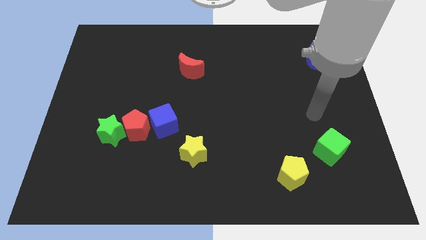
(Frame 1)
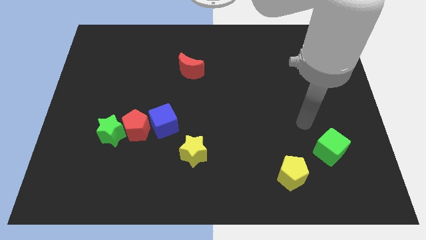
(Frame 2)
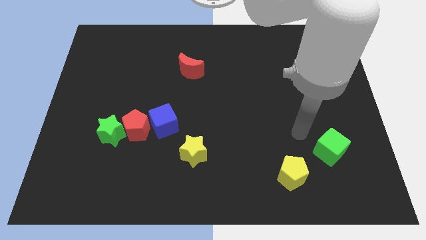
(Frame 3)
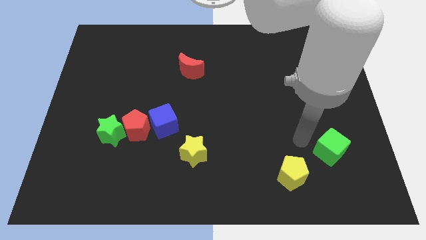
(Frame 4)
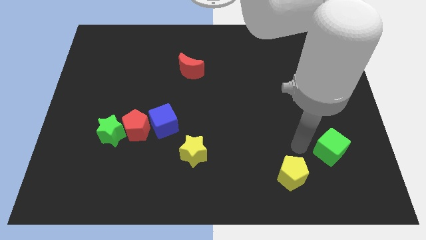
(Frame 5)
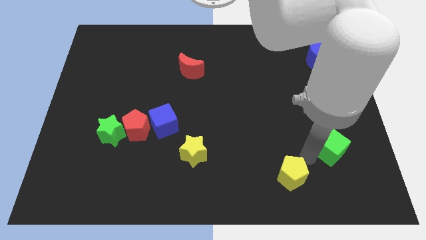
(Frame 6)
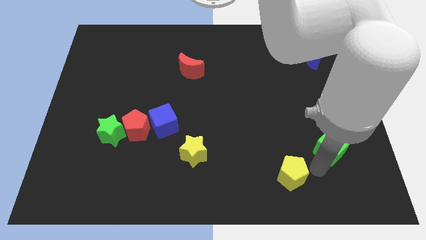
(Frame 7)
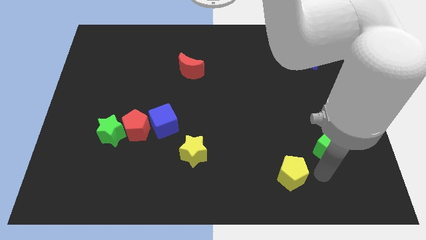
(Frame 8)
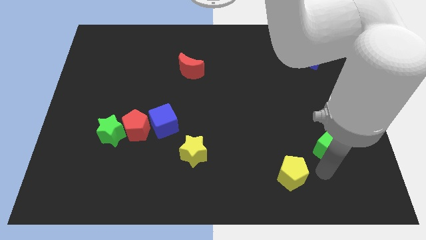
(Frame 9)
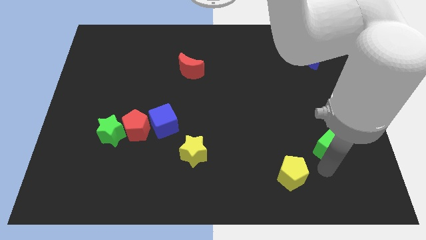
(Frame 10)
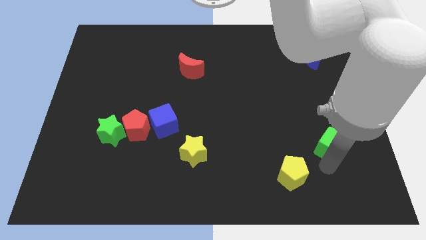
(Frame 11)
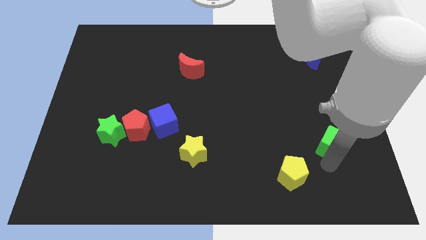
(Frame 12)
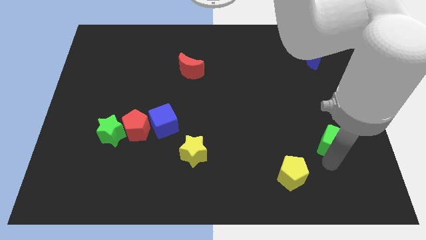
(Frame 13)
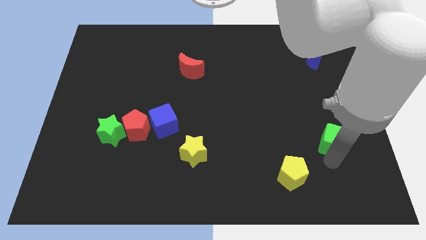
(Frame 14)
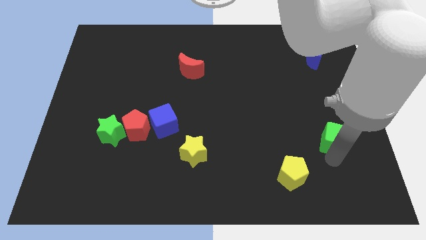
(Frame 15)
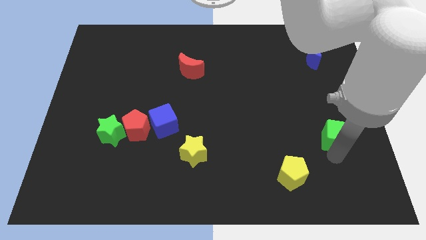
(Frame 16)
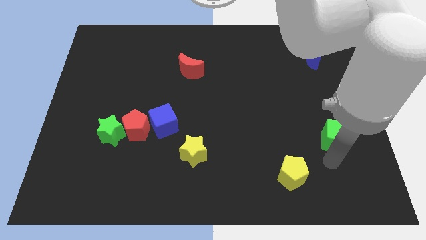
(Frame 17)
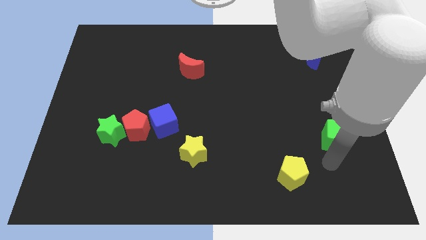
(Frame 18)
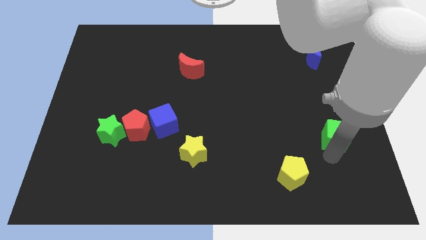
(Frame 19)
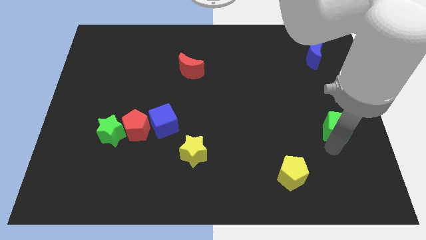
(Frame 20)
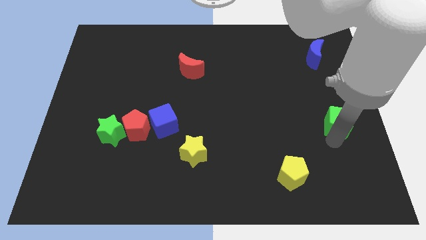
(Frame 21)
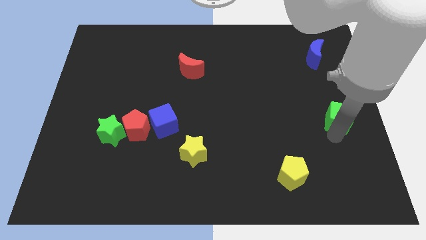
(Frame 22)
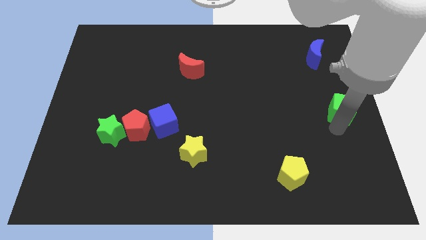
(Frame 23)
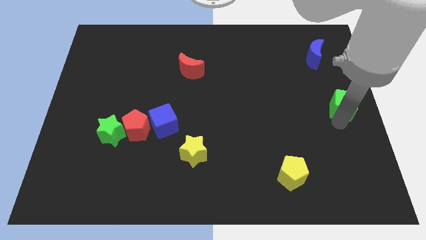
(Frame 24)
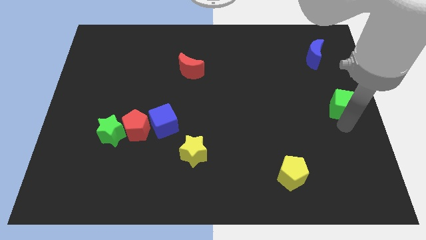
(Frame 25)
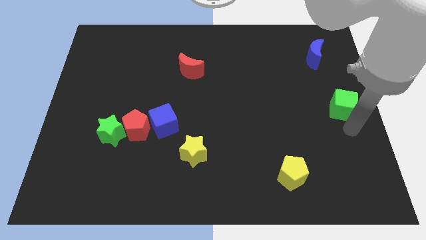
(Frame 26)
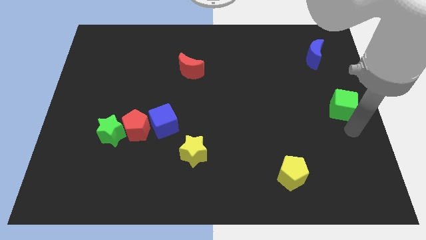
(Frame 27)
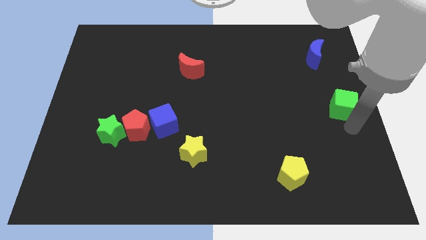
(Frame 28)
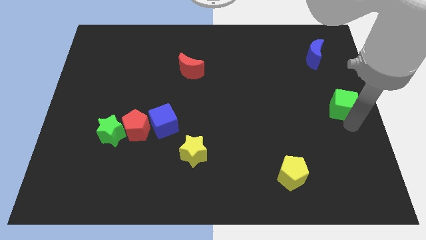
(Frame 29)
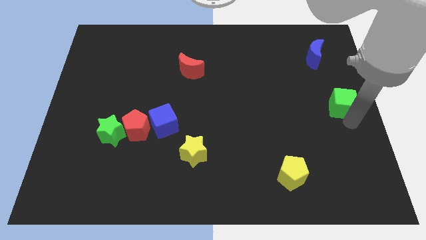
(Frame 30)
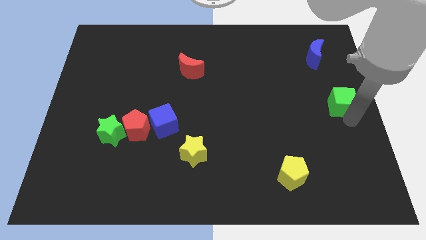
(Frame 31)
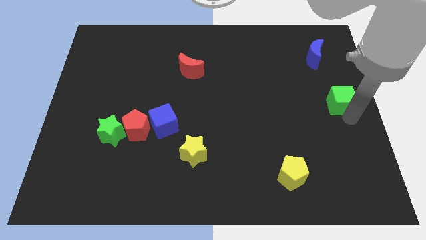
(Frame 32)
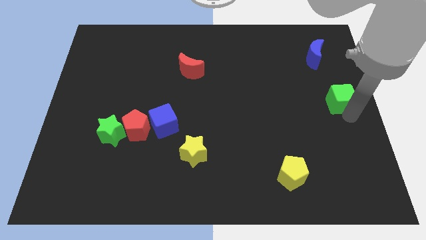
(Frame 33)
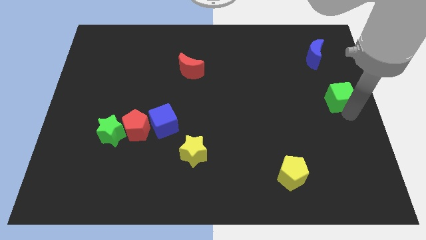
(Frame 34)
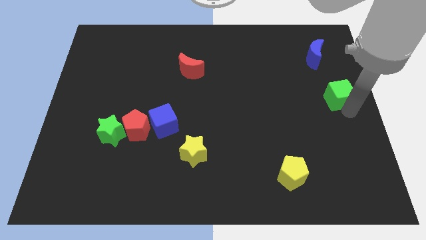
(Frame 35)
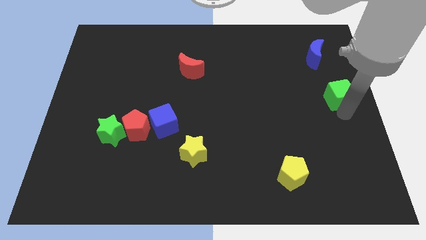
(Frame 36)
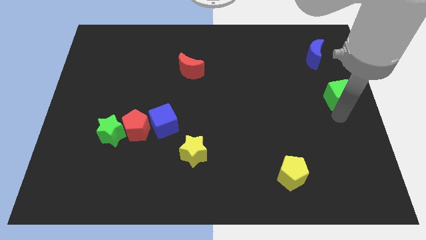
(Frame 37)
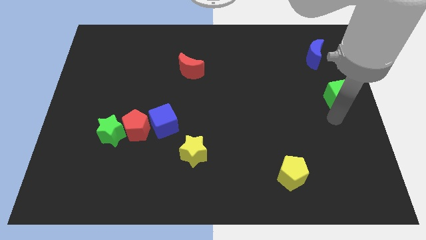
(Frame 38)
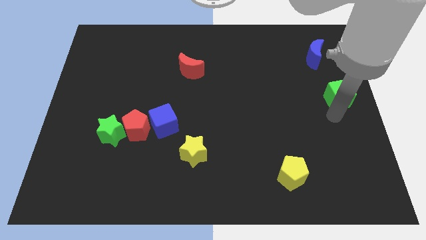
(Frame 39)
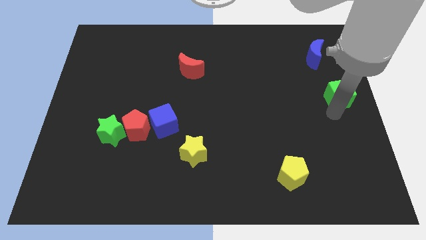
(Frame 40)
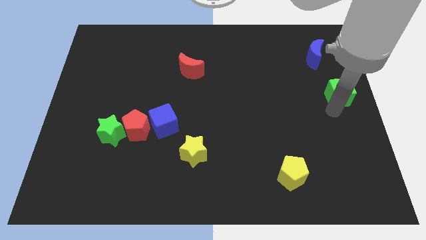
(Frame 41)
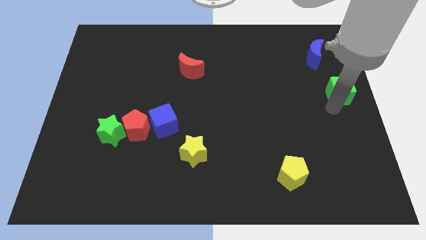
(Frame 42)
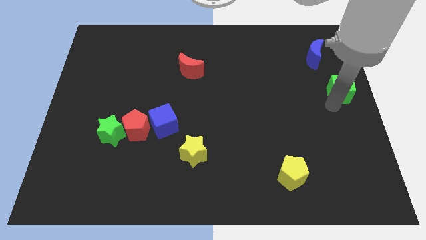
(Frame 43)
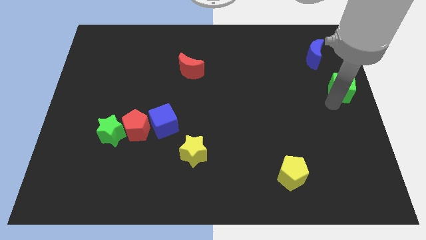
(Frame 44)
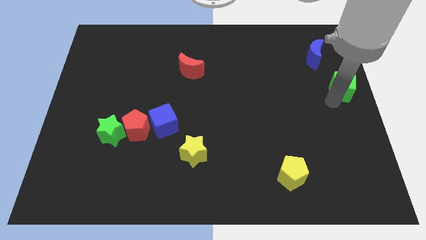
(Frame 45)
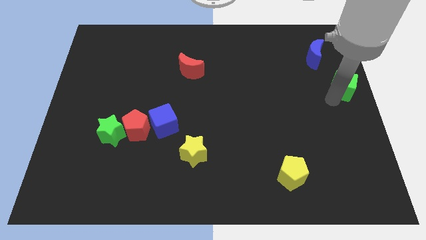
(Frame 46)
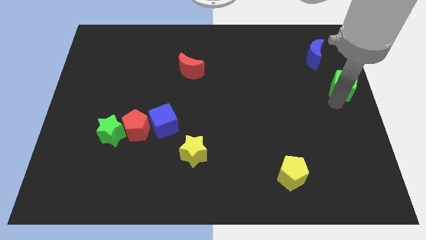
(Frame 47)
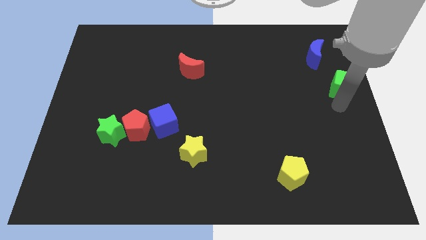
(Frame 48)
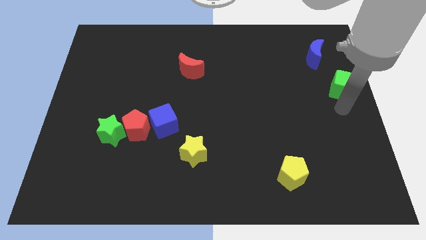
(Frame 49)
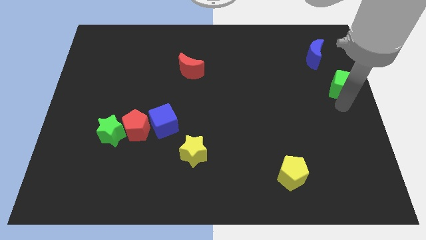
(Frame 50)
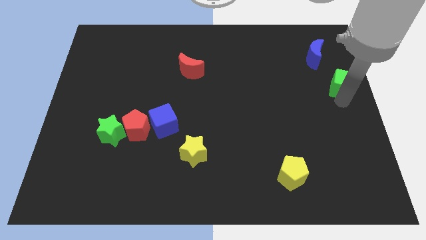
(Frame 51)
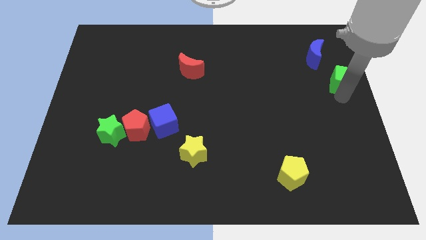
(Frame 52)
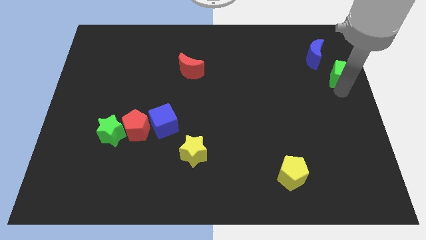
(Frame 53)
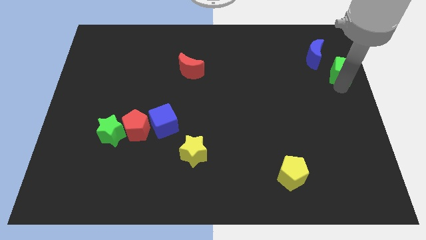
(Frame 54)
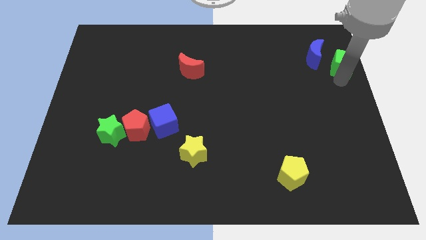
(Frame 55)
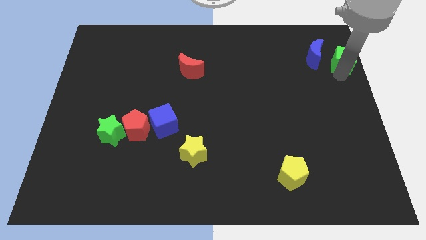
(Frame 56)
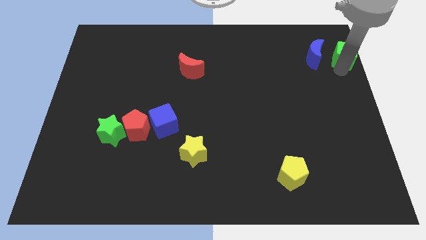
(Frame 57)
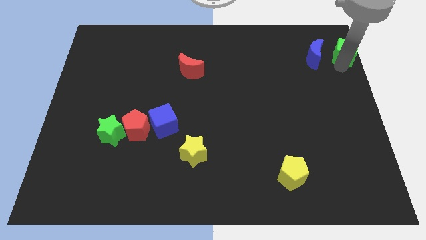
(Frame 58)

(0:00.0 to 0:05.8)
put the green cube to the upper right corner
